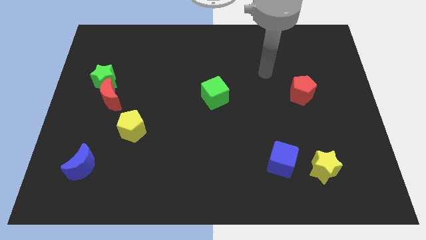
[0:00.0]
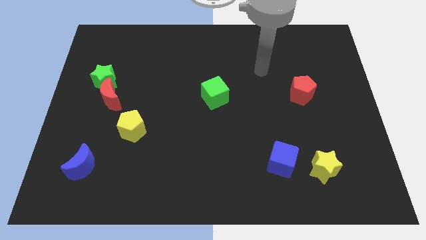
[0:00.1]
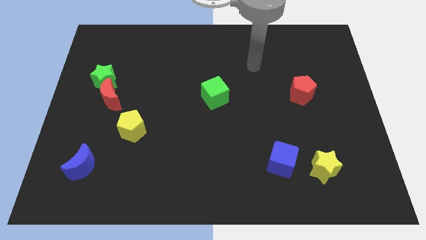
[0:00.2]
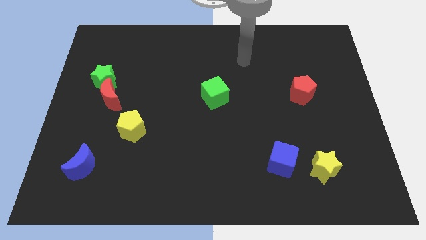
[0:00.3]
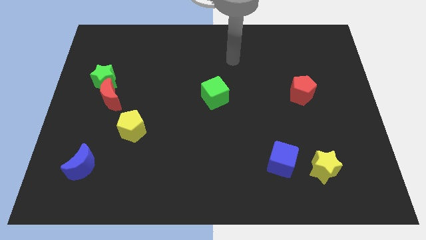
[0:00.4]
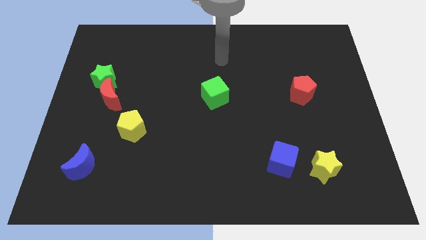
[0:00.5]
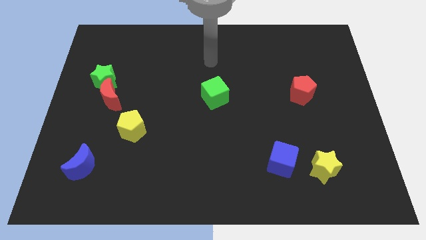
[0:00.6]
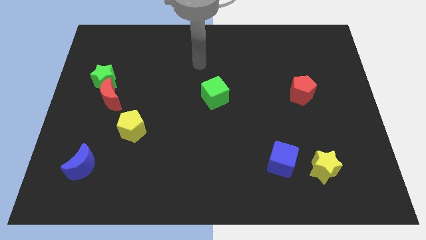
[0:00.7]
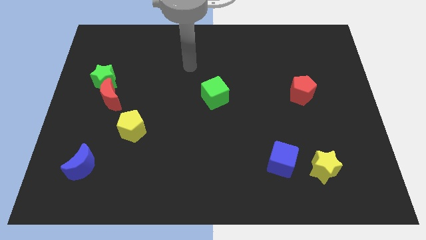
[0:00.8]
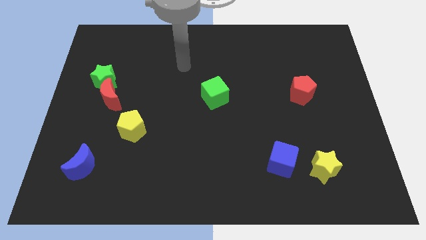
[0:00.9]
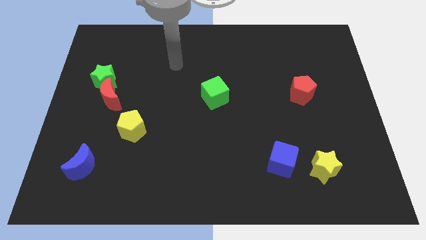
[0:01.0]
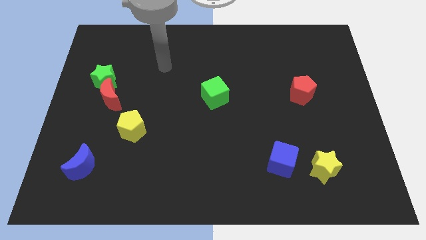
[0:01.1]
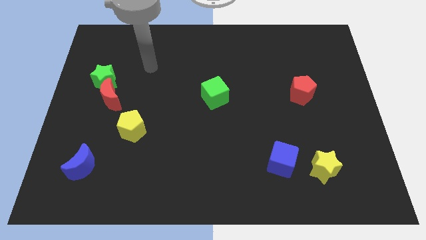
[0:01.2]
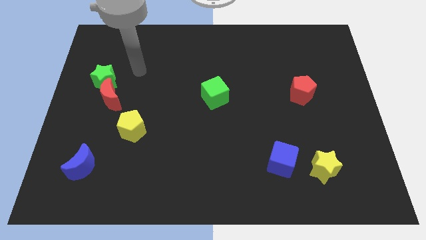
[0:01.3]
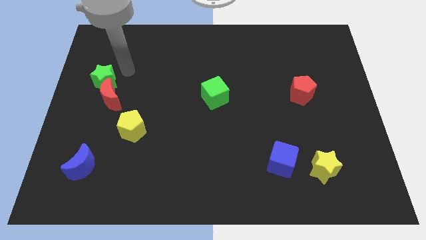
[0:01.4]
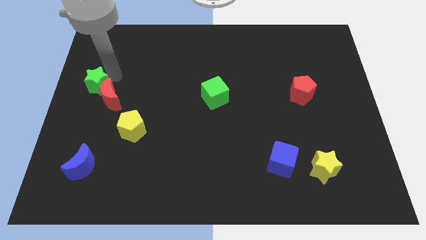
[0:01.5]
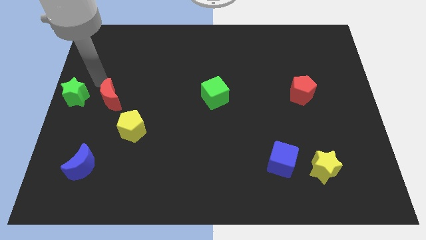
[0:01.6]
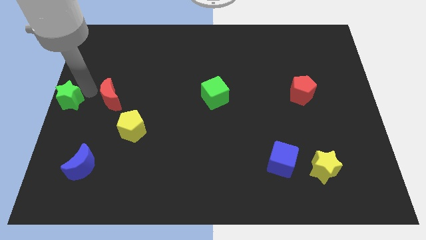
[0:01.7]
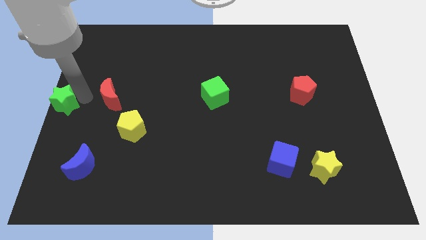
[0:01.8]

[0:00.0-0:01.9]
pull the red moon apart from the green star

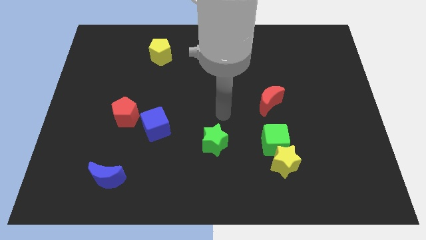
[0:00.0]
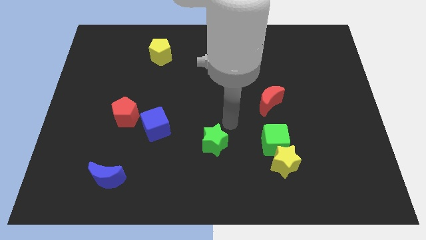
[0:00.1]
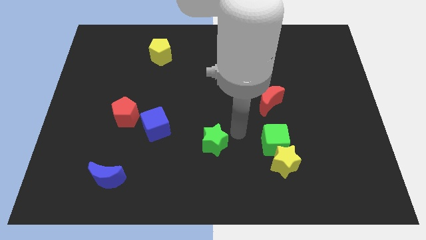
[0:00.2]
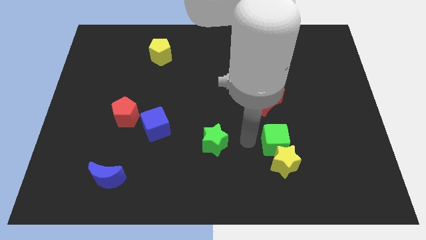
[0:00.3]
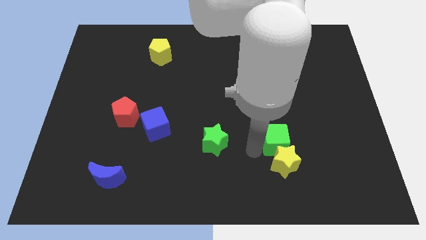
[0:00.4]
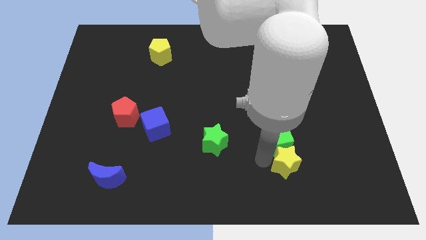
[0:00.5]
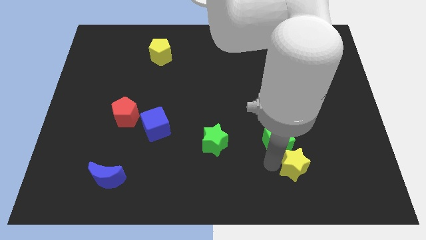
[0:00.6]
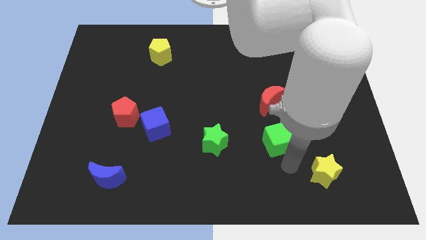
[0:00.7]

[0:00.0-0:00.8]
separate the green cube from the yellow star

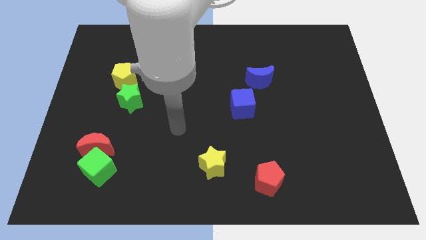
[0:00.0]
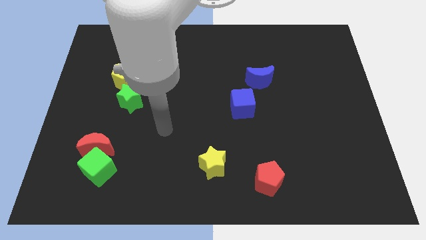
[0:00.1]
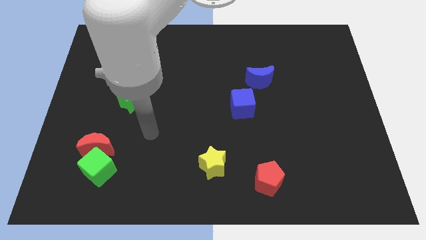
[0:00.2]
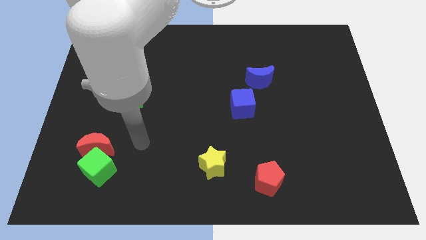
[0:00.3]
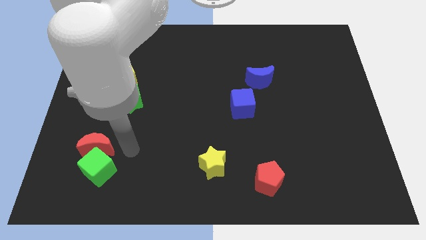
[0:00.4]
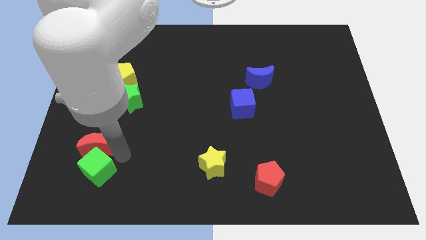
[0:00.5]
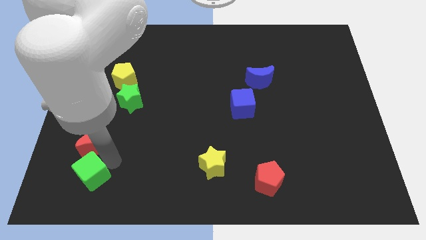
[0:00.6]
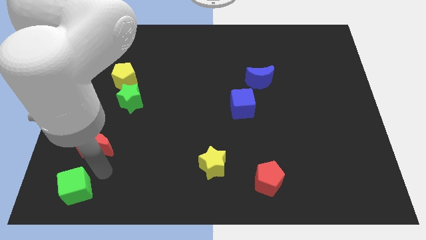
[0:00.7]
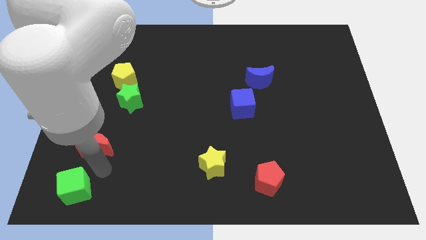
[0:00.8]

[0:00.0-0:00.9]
move the red moon away from the green cube

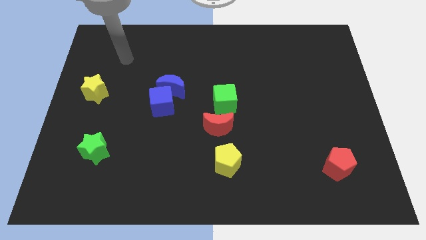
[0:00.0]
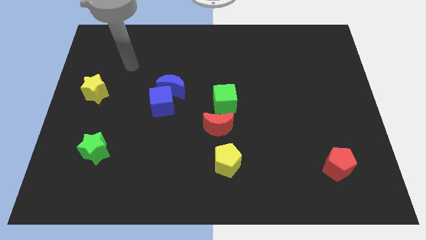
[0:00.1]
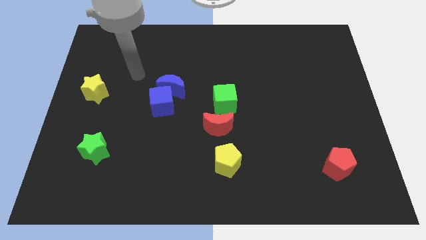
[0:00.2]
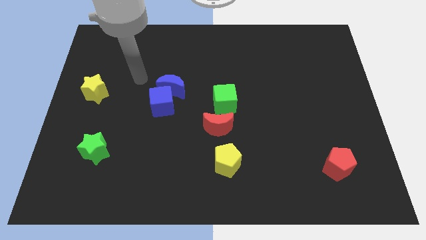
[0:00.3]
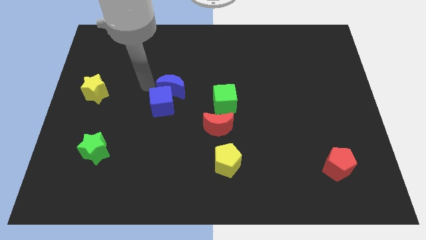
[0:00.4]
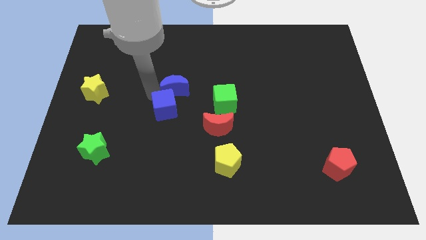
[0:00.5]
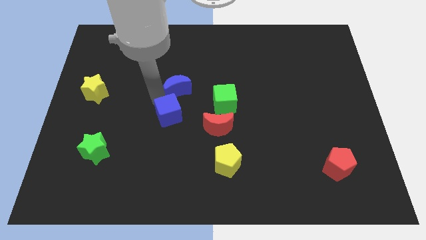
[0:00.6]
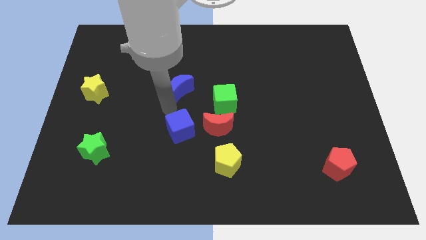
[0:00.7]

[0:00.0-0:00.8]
pull the blue moon apart from the blue cube

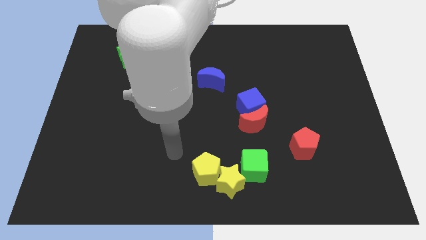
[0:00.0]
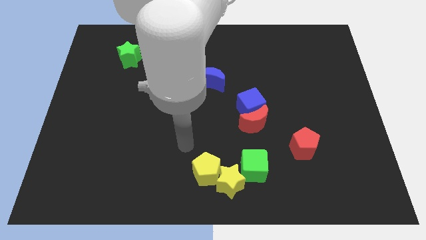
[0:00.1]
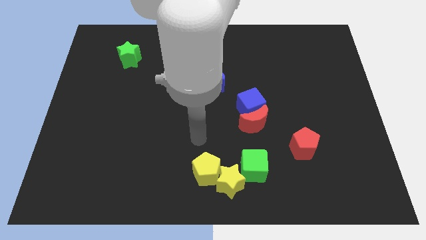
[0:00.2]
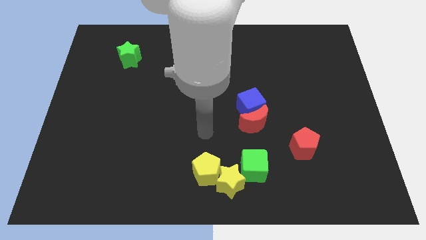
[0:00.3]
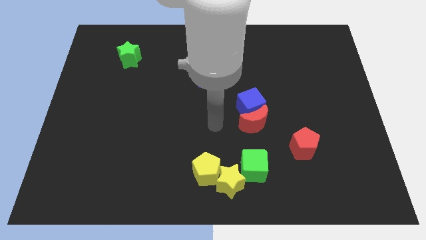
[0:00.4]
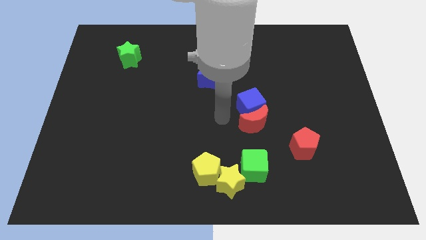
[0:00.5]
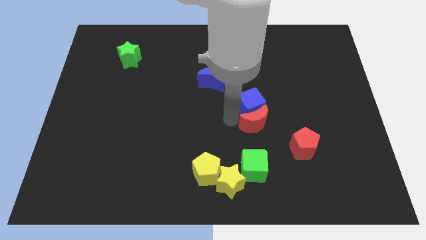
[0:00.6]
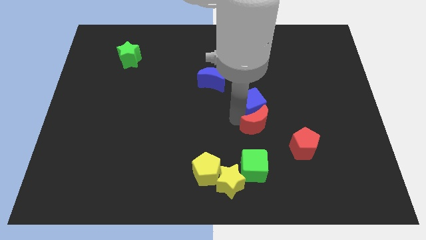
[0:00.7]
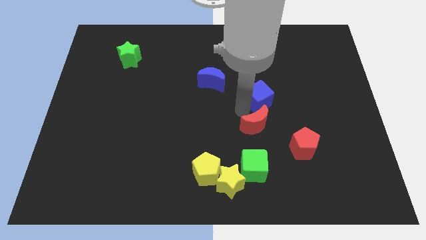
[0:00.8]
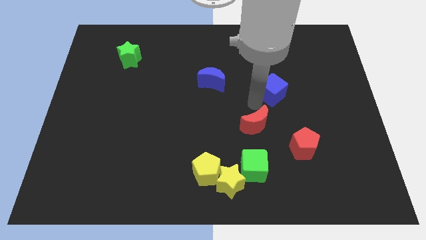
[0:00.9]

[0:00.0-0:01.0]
pull the red moon apart from the blue cube

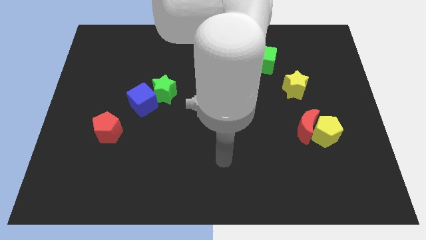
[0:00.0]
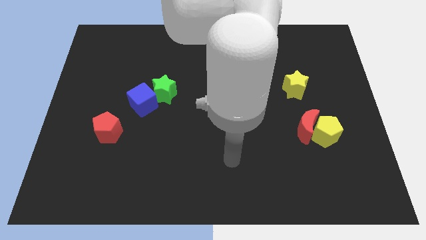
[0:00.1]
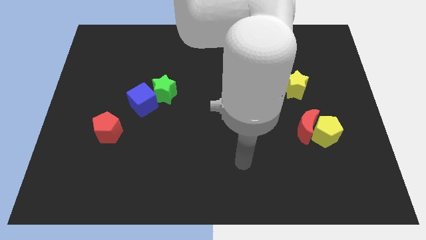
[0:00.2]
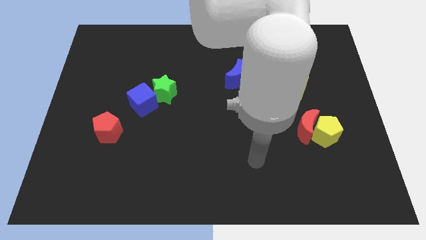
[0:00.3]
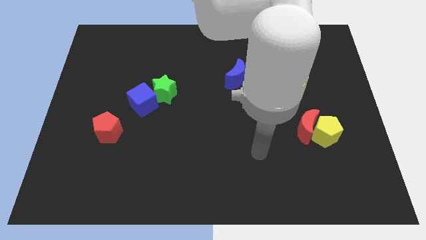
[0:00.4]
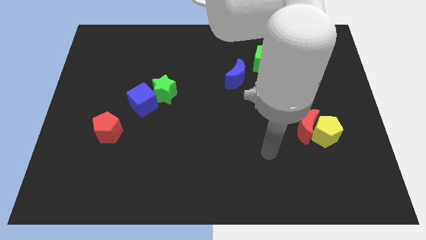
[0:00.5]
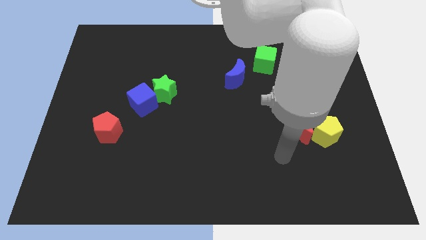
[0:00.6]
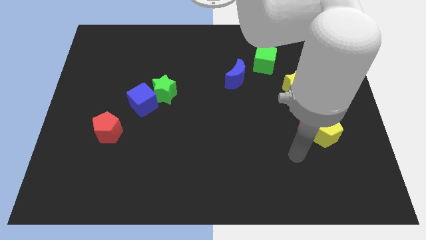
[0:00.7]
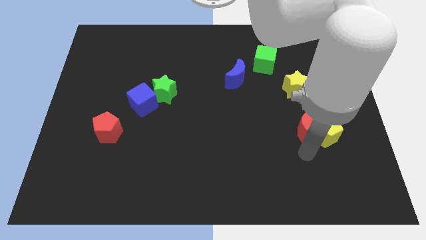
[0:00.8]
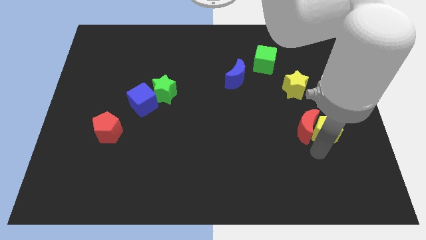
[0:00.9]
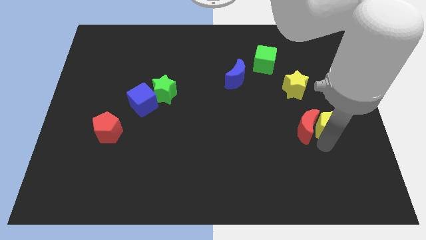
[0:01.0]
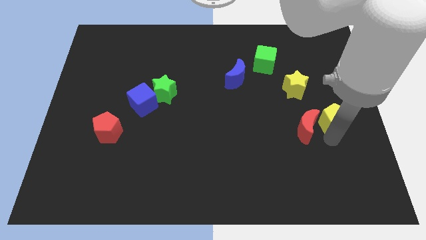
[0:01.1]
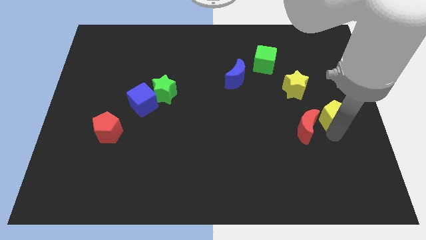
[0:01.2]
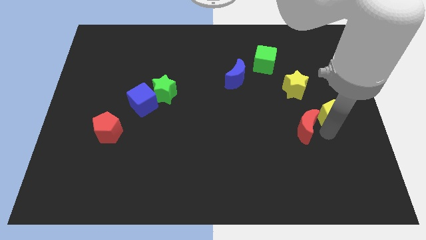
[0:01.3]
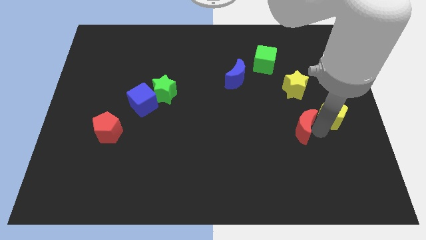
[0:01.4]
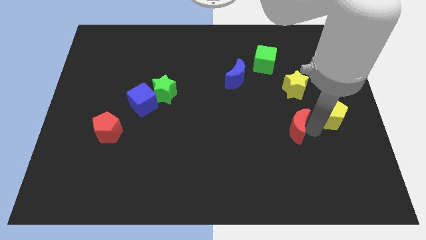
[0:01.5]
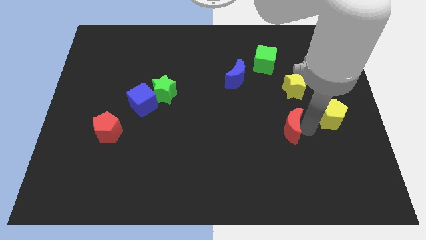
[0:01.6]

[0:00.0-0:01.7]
separate the red moon from the yellow pentagon

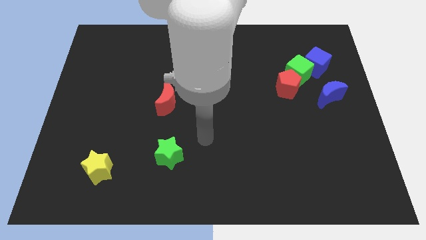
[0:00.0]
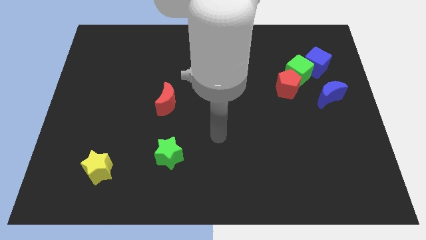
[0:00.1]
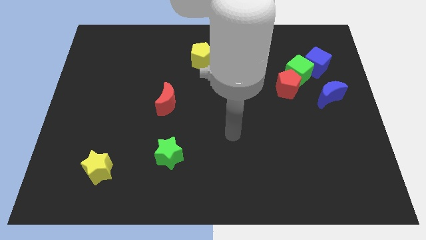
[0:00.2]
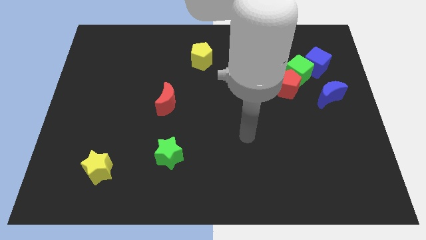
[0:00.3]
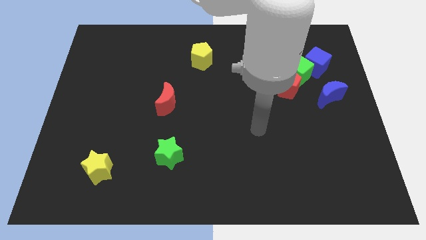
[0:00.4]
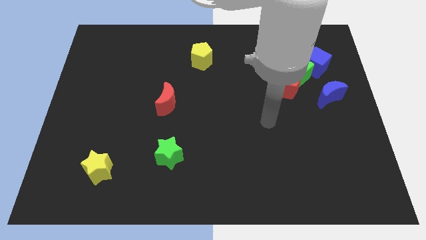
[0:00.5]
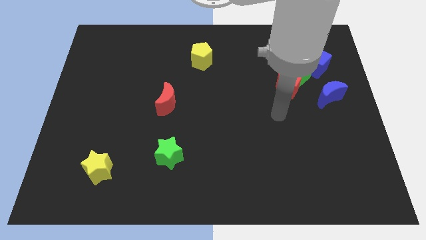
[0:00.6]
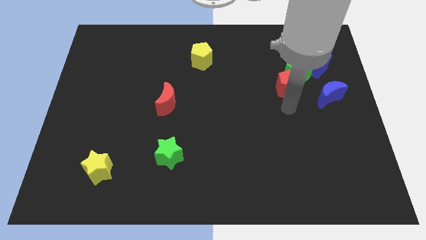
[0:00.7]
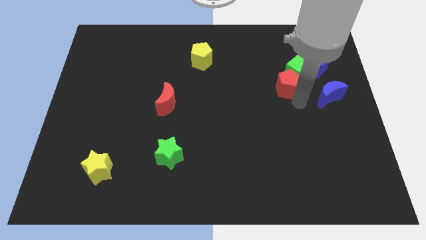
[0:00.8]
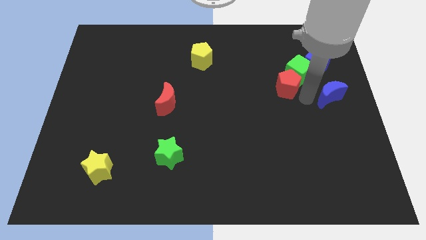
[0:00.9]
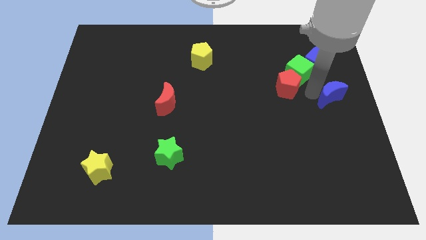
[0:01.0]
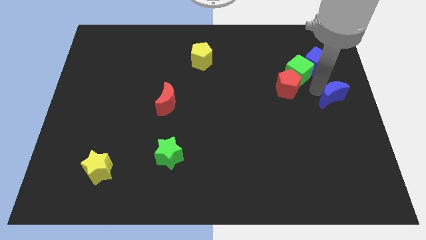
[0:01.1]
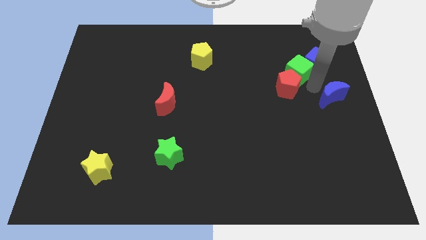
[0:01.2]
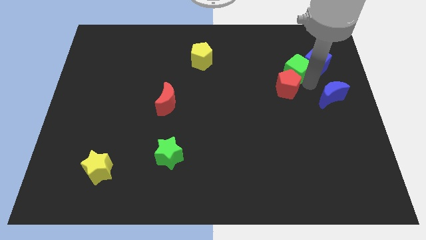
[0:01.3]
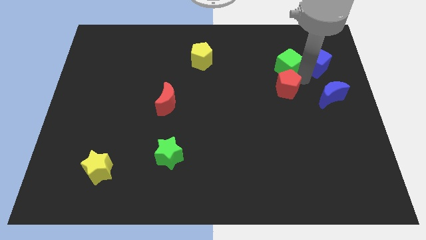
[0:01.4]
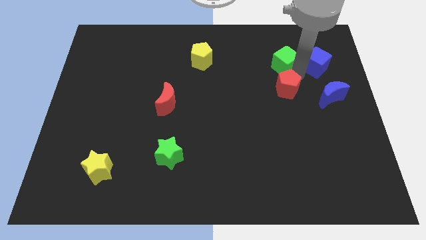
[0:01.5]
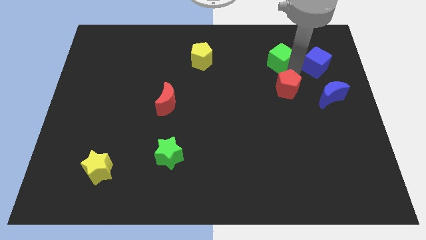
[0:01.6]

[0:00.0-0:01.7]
move the green cube away from the group

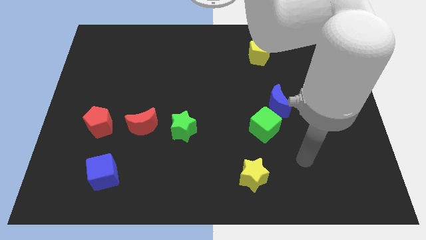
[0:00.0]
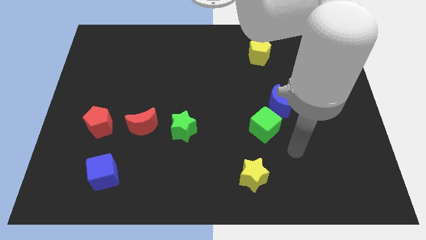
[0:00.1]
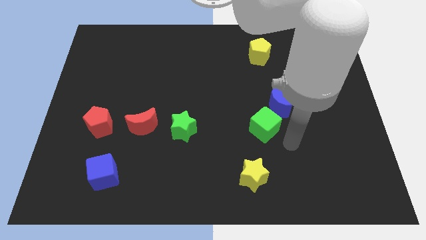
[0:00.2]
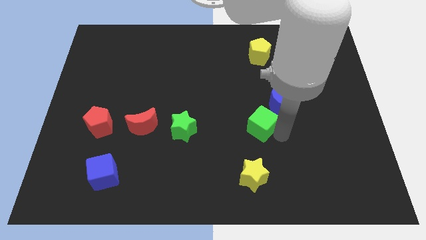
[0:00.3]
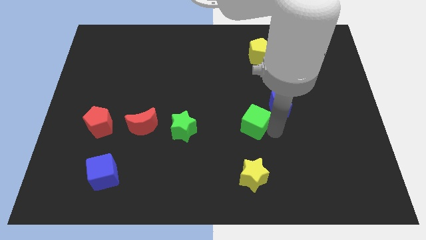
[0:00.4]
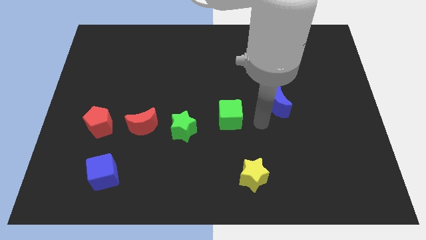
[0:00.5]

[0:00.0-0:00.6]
move the blue moon away from the green cube
